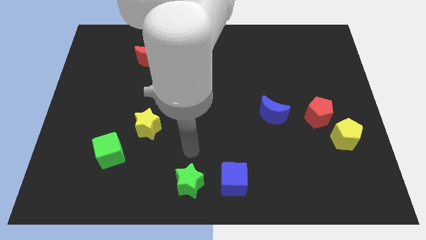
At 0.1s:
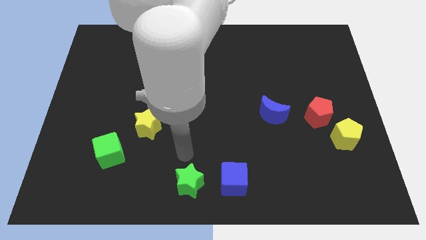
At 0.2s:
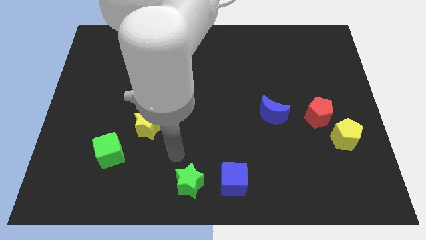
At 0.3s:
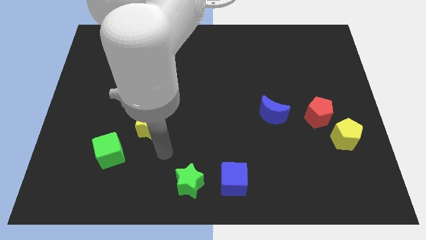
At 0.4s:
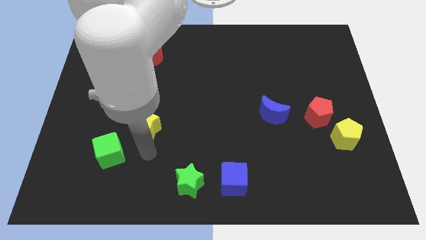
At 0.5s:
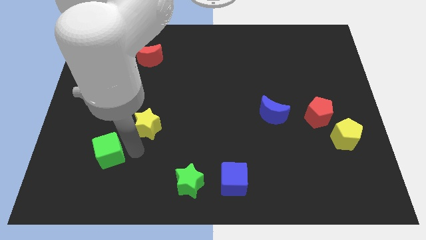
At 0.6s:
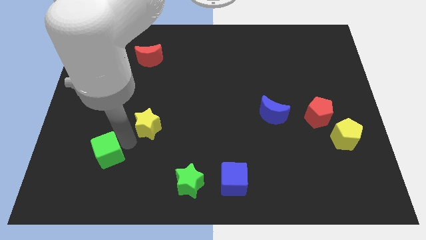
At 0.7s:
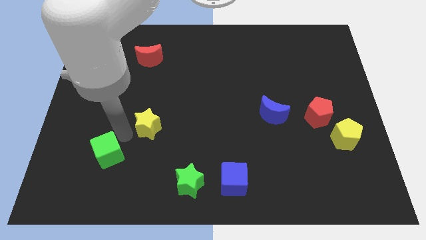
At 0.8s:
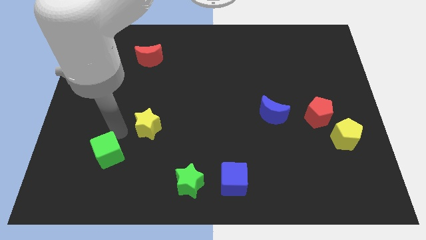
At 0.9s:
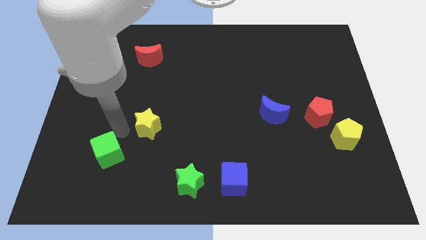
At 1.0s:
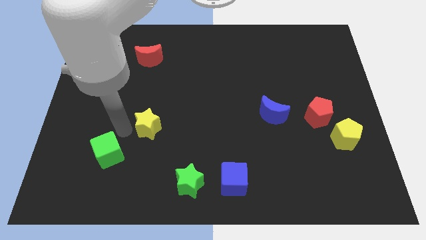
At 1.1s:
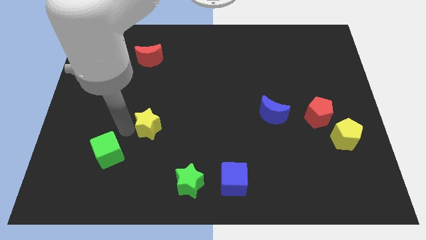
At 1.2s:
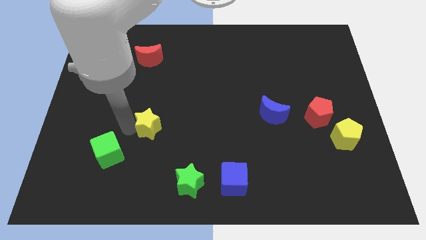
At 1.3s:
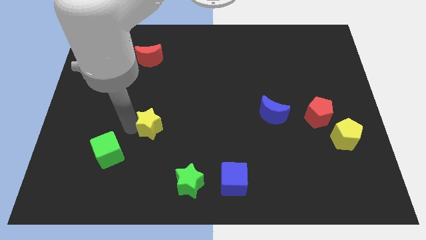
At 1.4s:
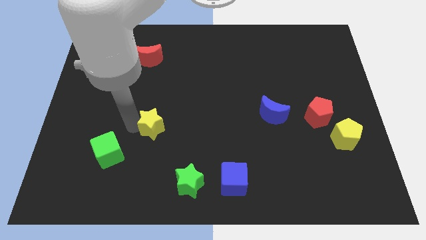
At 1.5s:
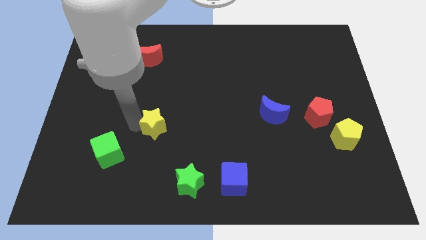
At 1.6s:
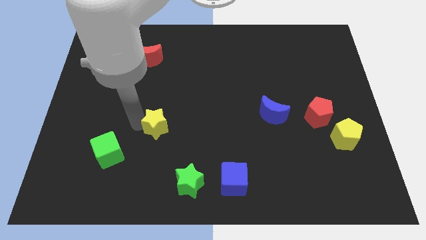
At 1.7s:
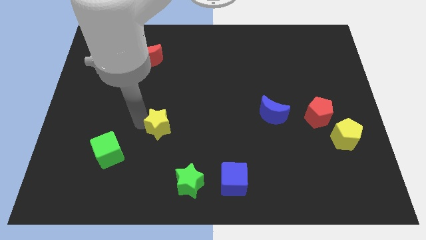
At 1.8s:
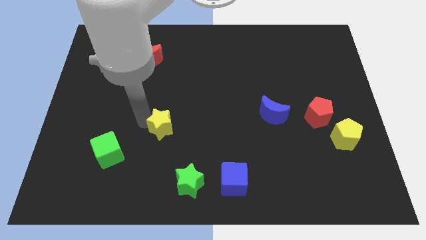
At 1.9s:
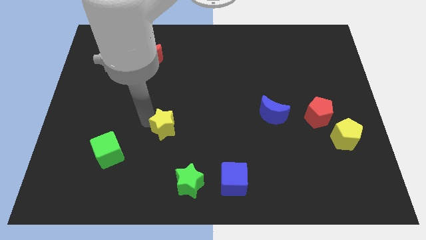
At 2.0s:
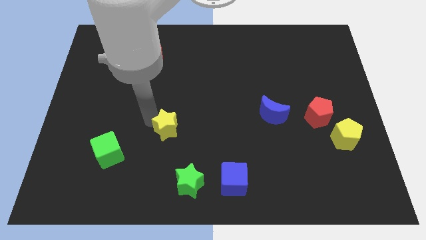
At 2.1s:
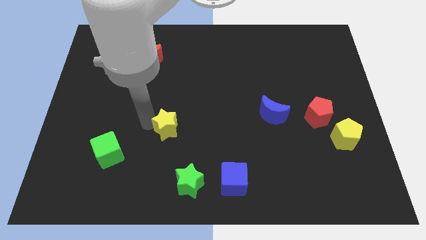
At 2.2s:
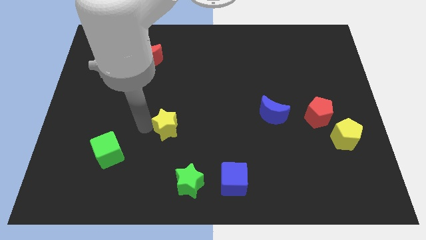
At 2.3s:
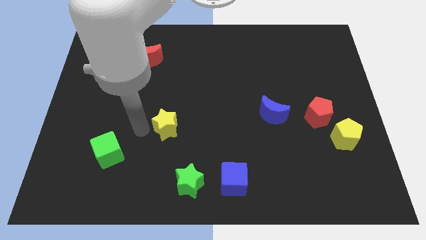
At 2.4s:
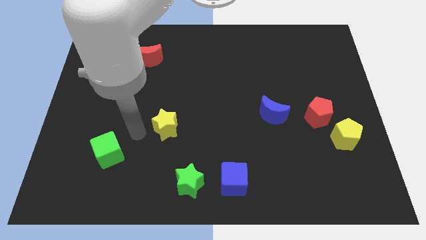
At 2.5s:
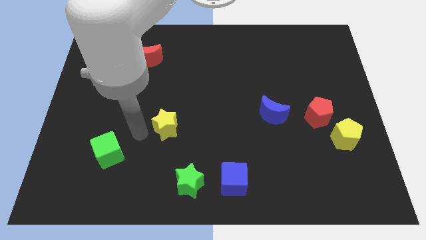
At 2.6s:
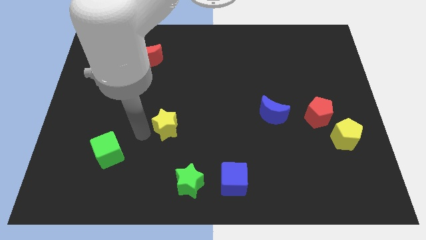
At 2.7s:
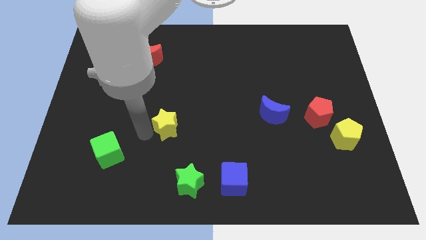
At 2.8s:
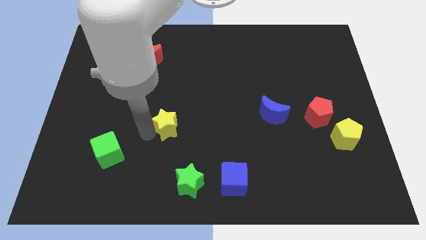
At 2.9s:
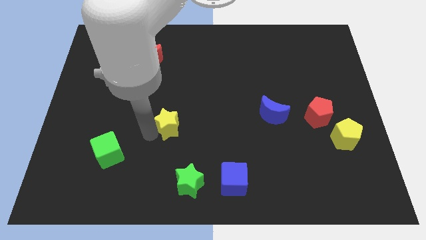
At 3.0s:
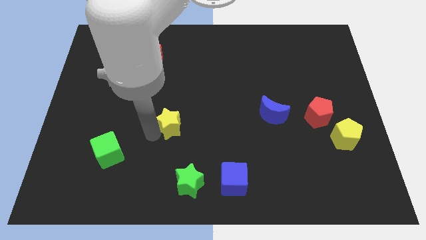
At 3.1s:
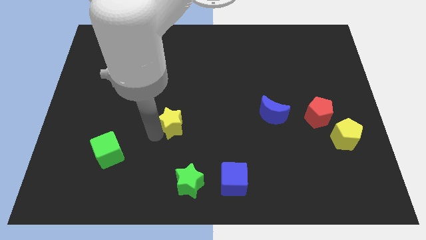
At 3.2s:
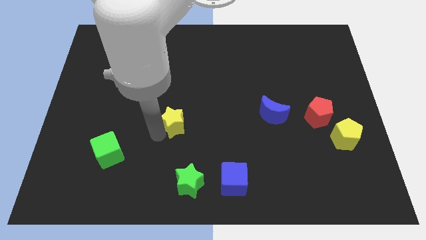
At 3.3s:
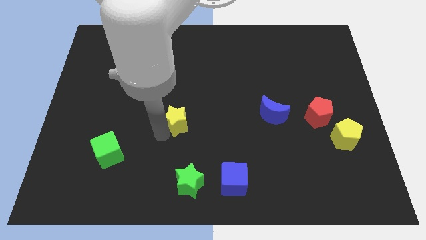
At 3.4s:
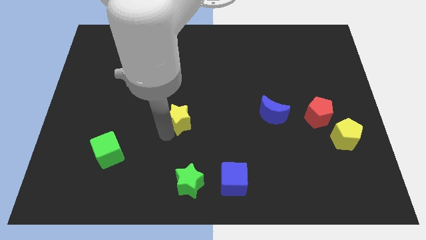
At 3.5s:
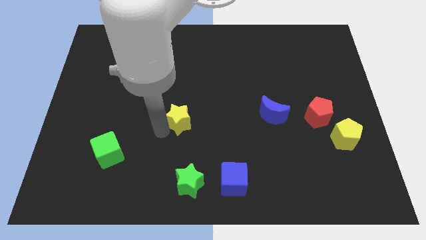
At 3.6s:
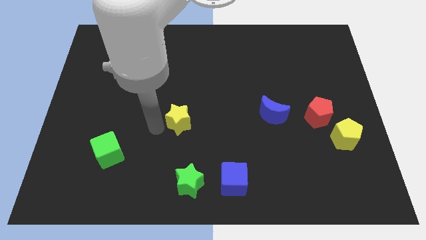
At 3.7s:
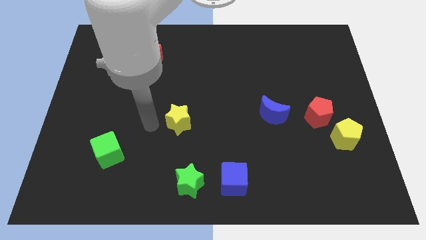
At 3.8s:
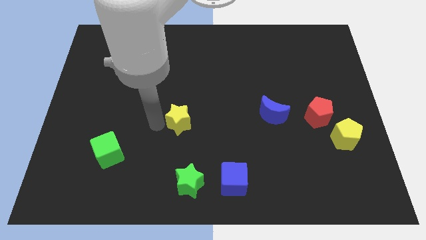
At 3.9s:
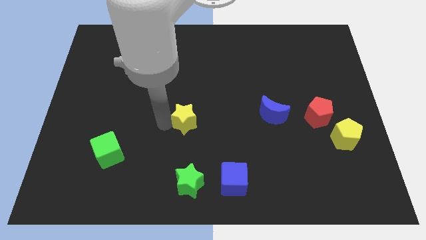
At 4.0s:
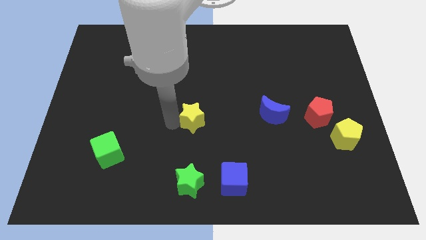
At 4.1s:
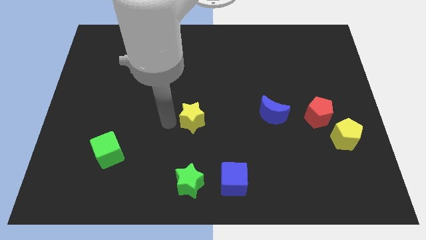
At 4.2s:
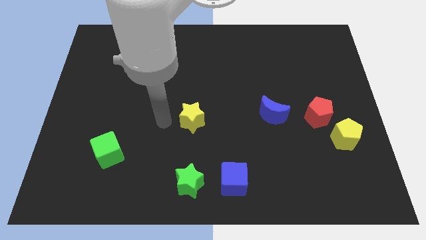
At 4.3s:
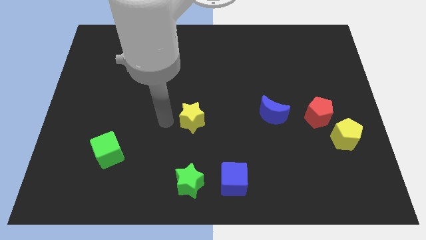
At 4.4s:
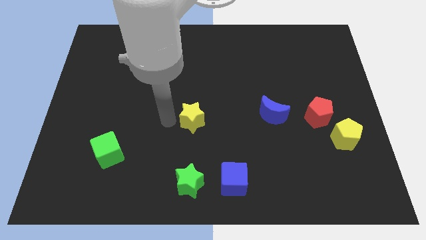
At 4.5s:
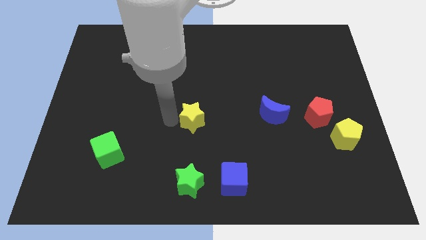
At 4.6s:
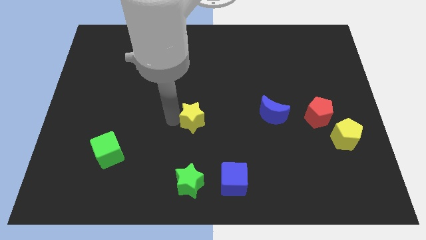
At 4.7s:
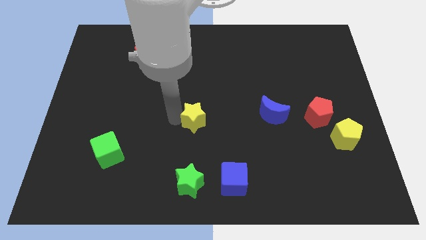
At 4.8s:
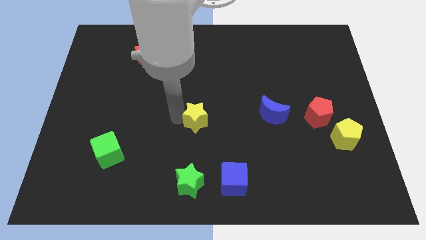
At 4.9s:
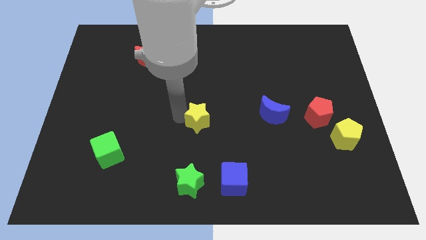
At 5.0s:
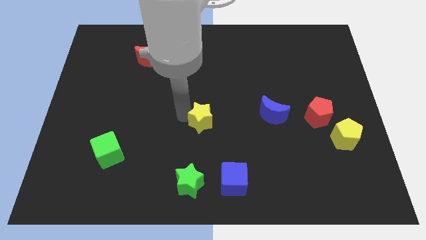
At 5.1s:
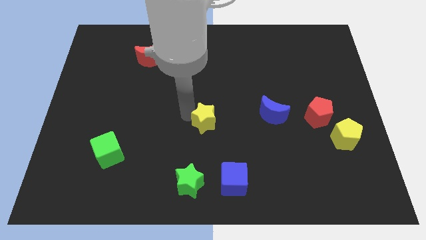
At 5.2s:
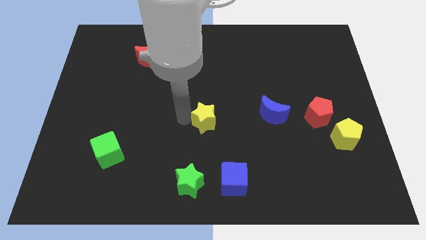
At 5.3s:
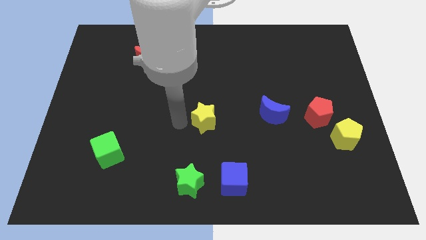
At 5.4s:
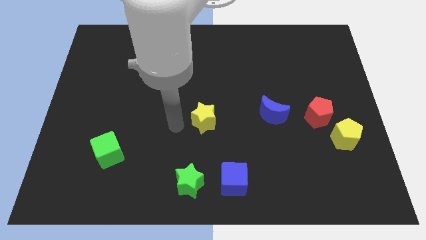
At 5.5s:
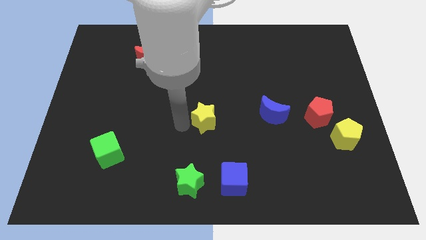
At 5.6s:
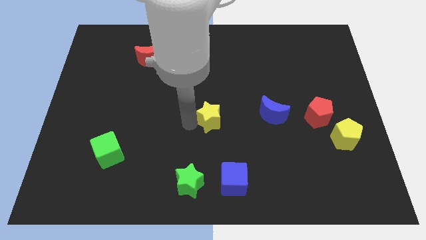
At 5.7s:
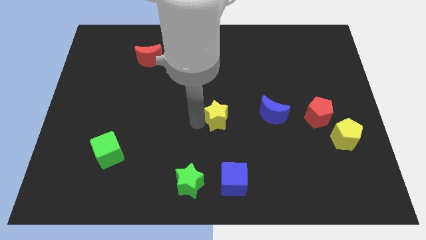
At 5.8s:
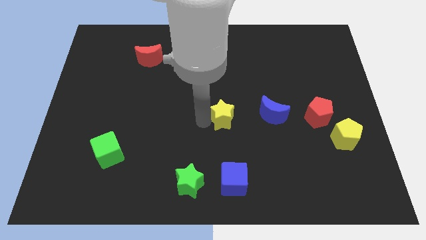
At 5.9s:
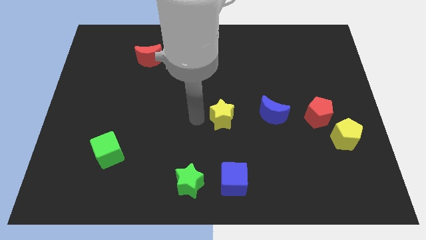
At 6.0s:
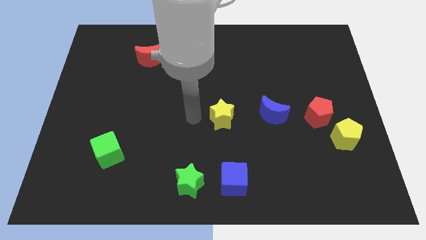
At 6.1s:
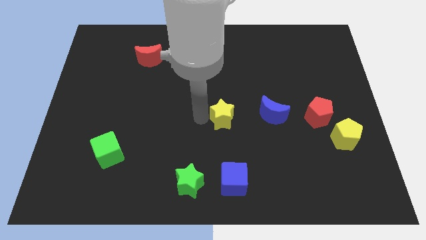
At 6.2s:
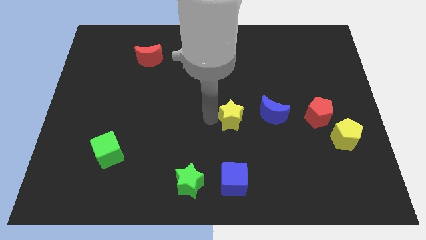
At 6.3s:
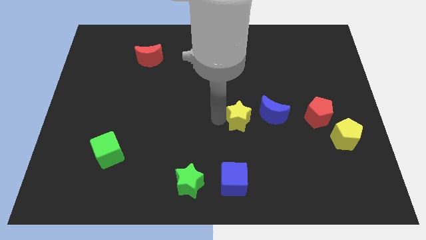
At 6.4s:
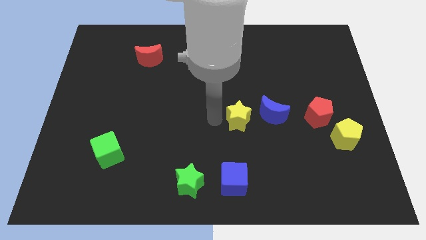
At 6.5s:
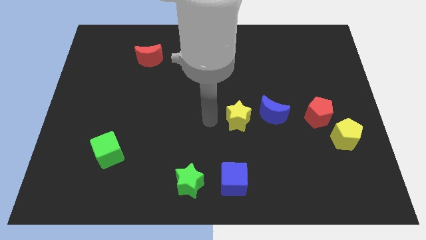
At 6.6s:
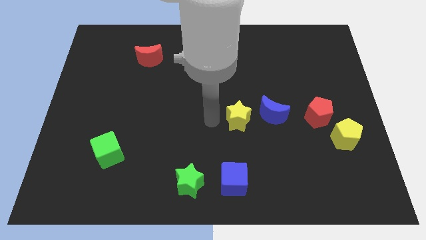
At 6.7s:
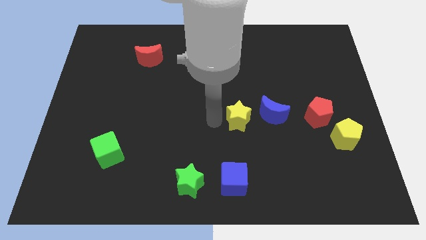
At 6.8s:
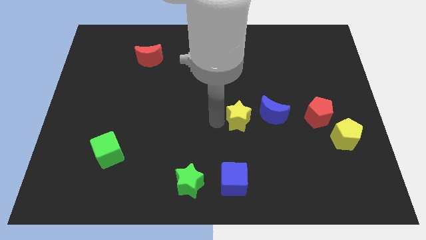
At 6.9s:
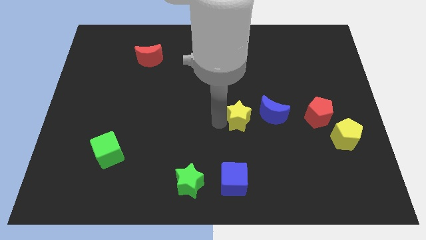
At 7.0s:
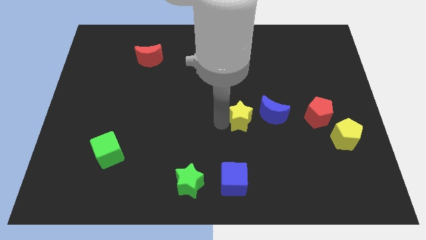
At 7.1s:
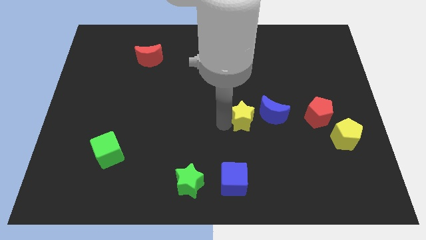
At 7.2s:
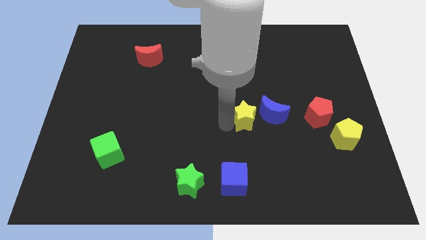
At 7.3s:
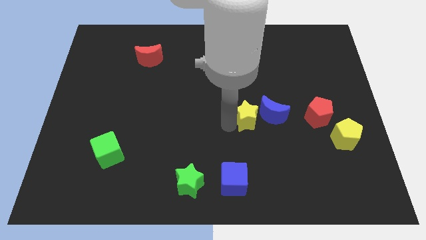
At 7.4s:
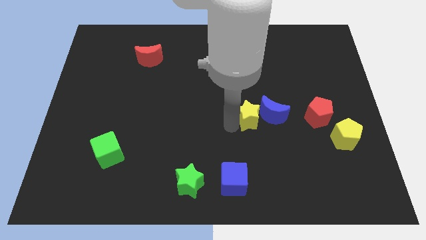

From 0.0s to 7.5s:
slide the yellow star to the blue moon
